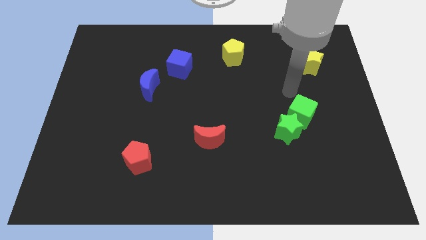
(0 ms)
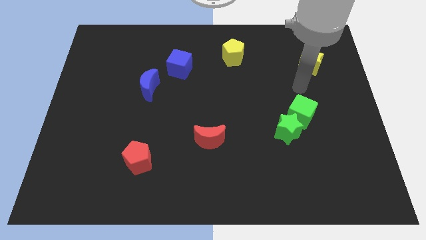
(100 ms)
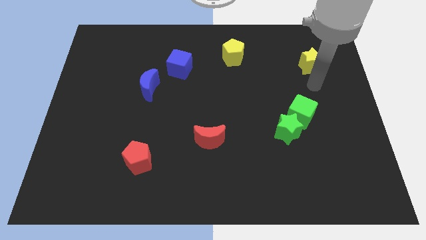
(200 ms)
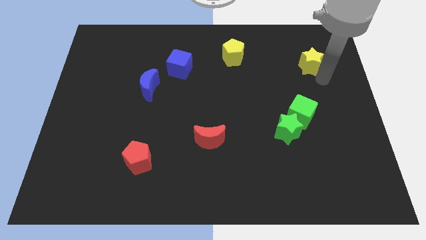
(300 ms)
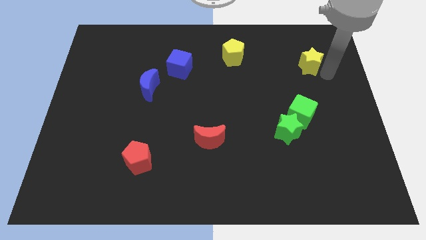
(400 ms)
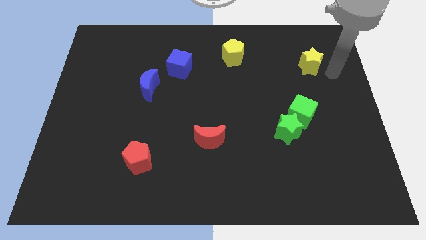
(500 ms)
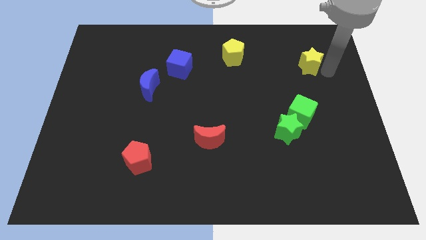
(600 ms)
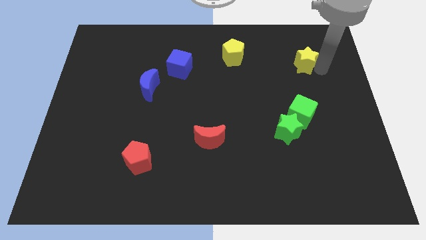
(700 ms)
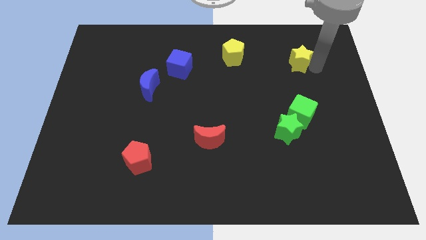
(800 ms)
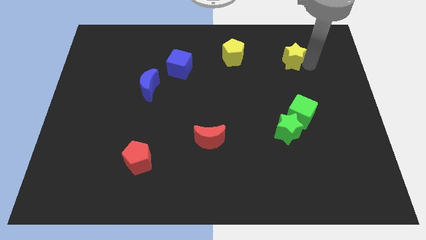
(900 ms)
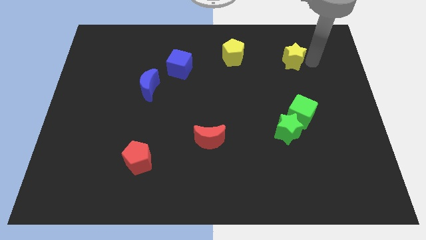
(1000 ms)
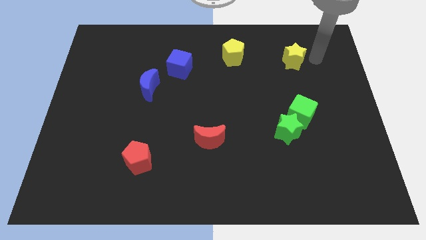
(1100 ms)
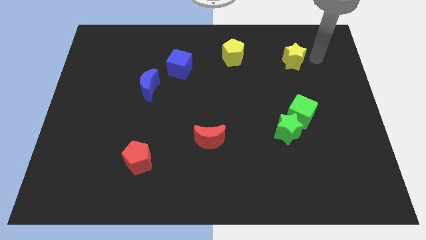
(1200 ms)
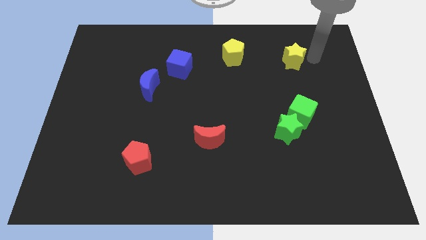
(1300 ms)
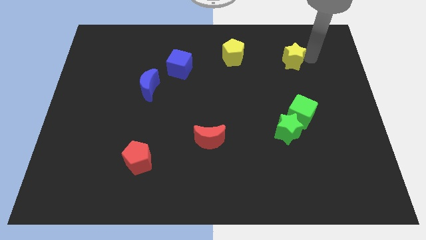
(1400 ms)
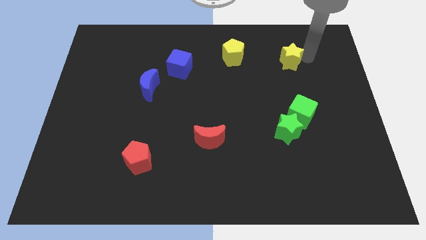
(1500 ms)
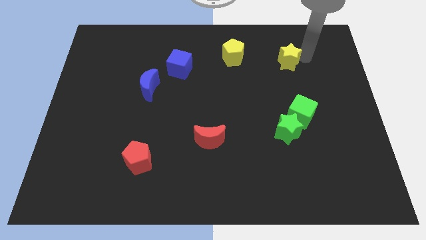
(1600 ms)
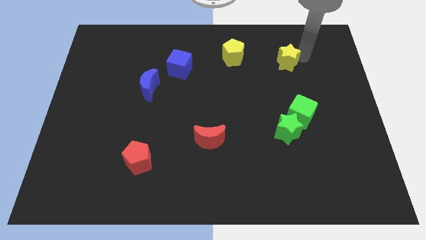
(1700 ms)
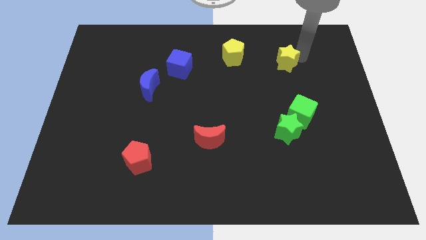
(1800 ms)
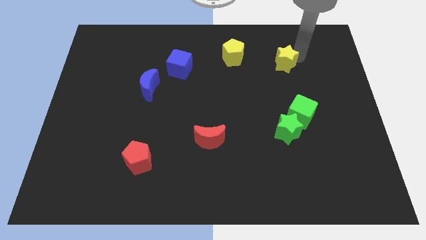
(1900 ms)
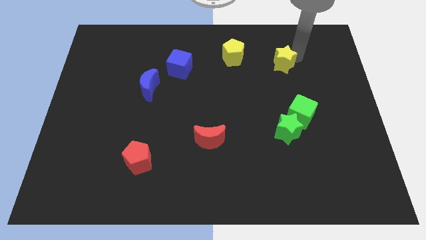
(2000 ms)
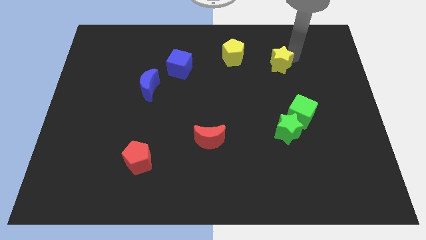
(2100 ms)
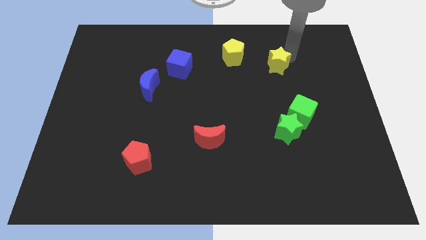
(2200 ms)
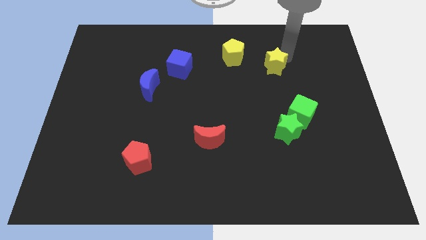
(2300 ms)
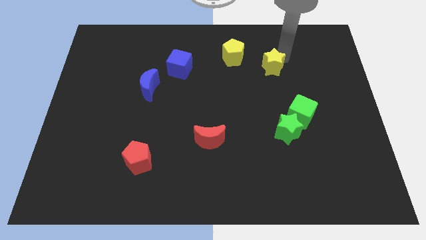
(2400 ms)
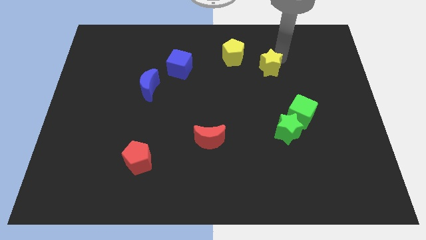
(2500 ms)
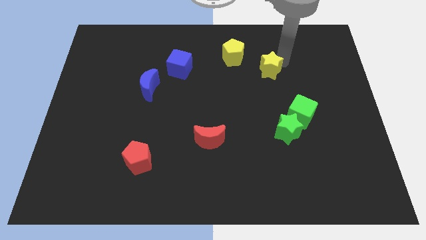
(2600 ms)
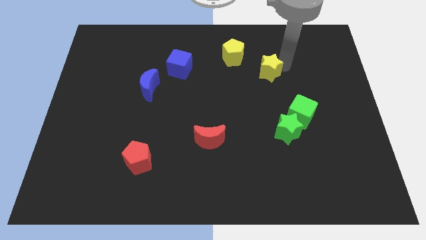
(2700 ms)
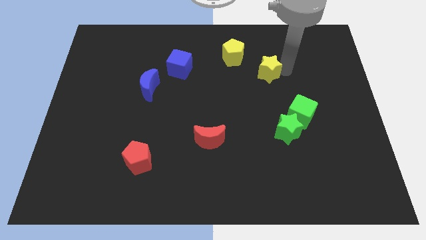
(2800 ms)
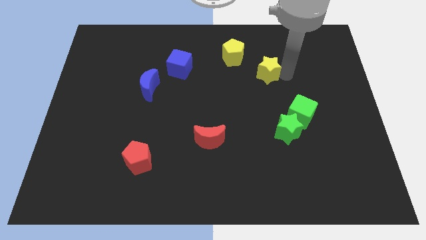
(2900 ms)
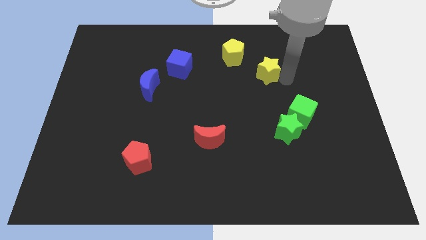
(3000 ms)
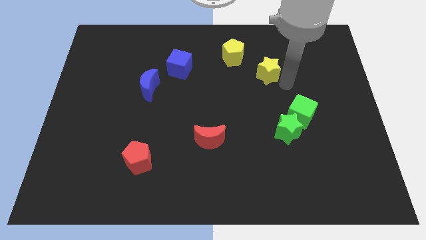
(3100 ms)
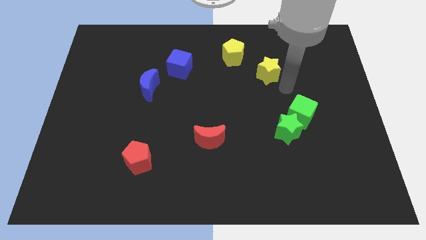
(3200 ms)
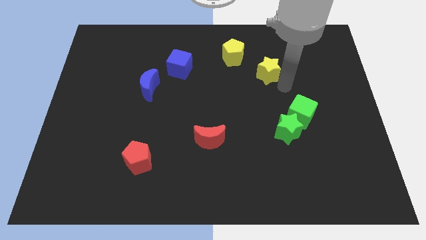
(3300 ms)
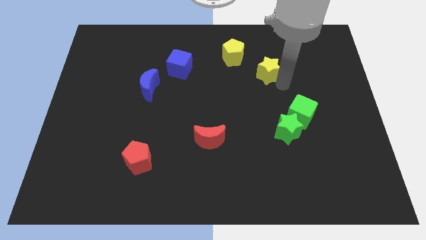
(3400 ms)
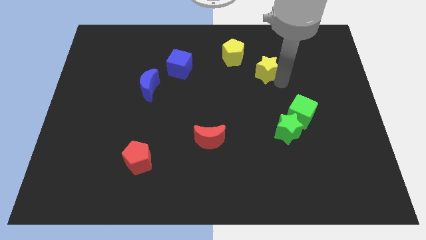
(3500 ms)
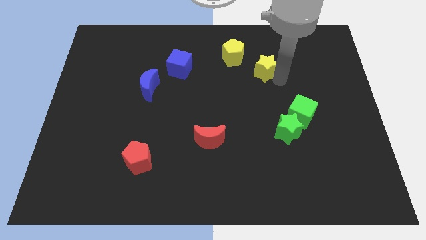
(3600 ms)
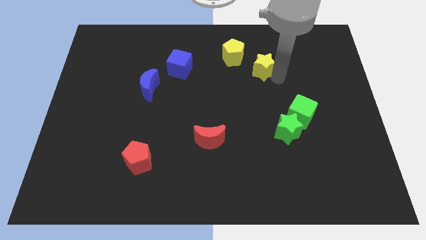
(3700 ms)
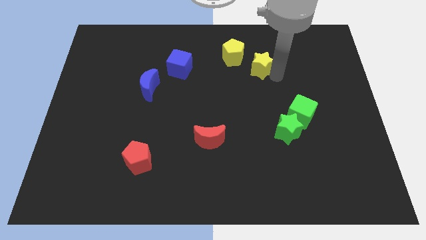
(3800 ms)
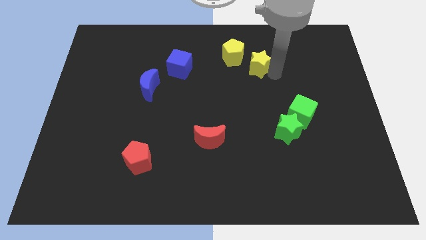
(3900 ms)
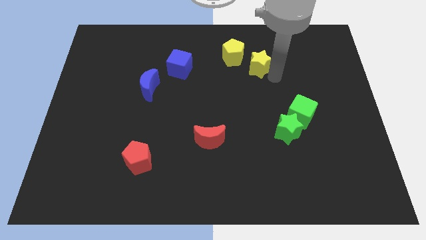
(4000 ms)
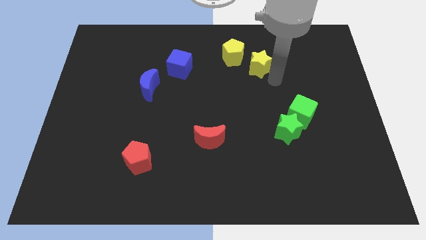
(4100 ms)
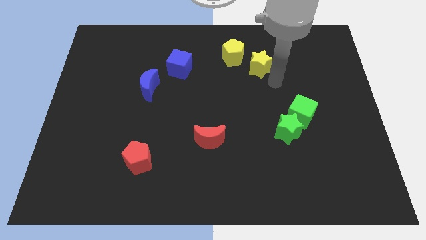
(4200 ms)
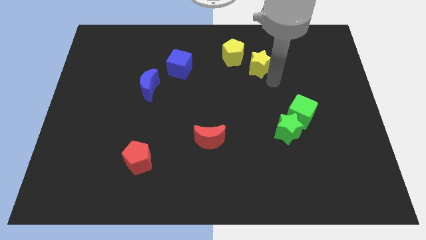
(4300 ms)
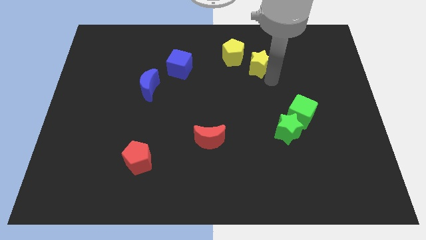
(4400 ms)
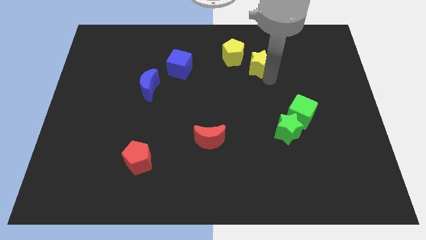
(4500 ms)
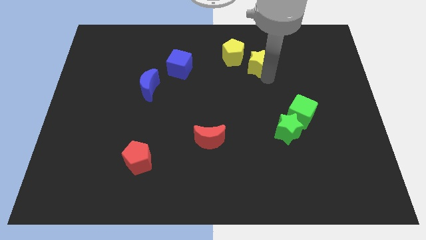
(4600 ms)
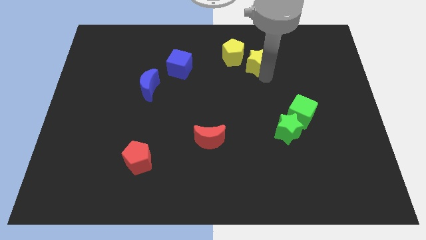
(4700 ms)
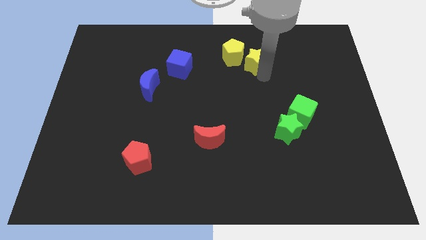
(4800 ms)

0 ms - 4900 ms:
push the yellow star close to the yellow pentagon

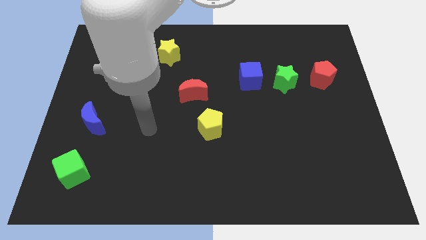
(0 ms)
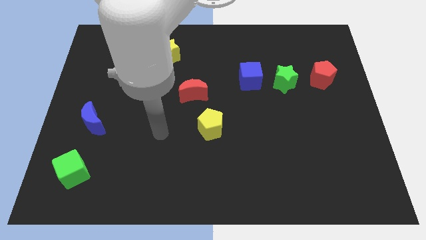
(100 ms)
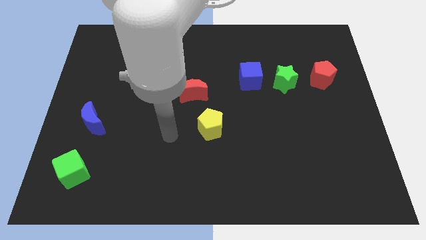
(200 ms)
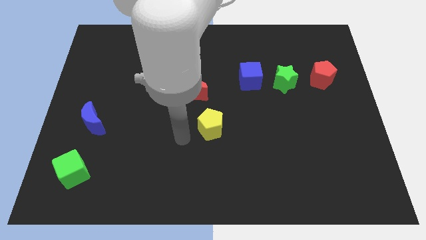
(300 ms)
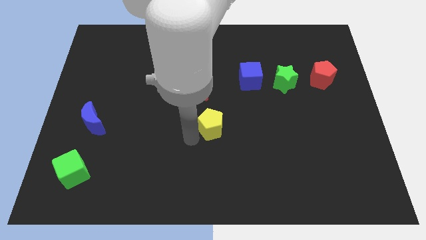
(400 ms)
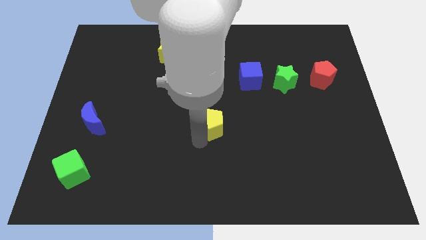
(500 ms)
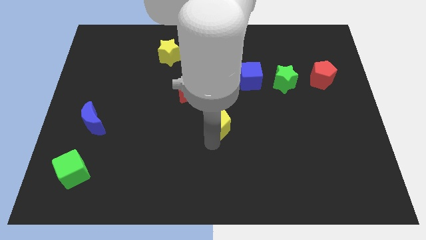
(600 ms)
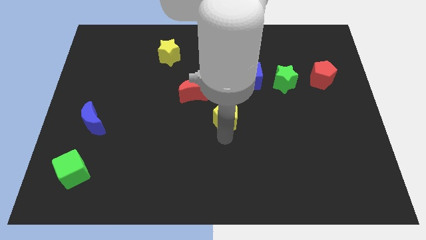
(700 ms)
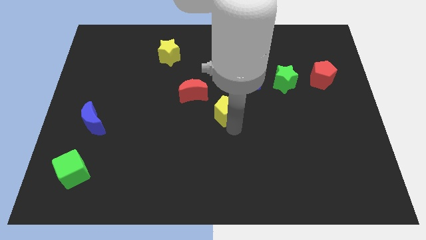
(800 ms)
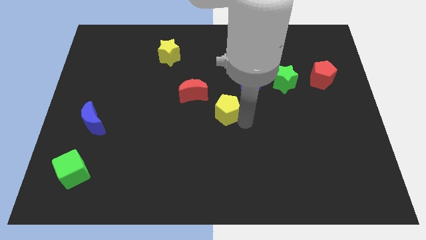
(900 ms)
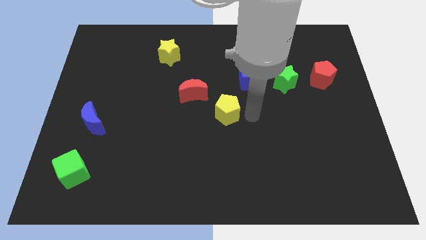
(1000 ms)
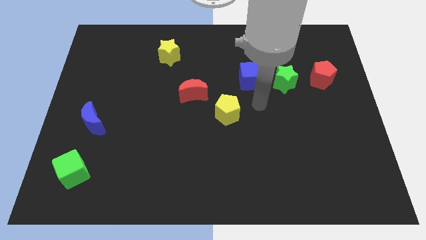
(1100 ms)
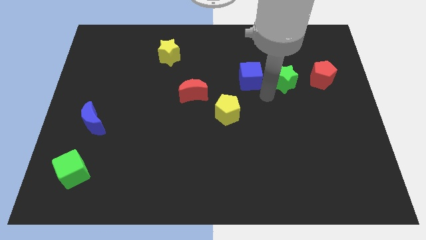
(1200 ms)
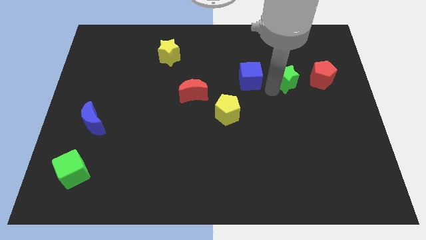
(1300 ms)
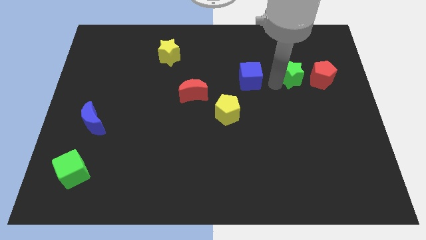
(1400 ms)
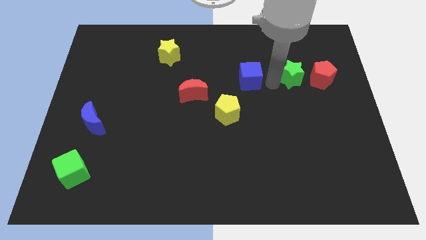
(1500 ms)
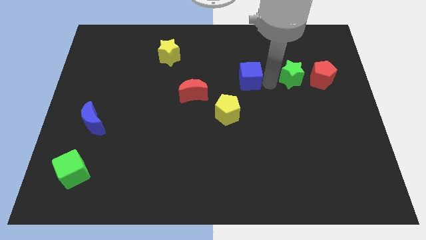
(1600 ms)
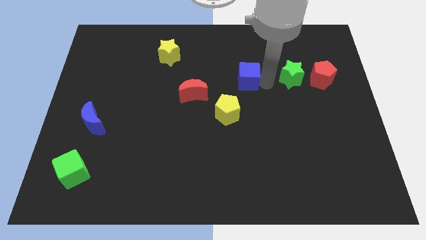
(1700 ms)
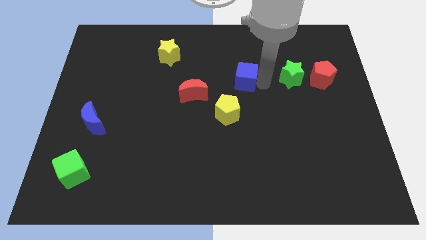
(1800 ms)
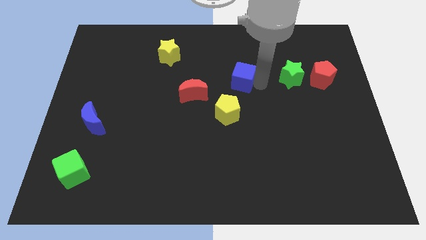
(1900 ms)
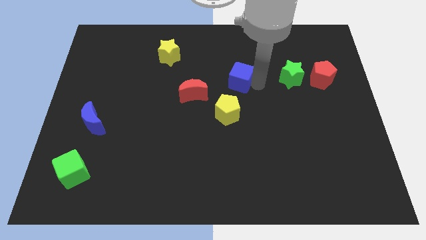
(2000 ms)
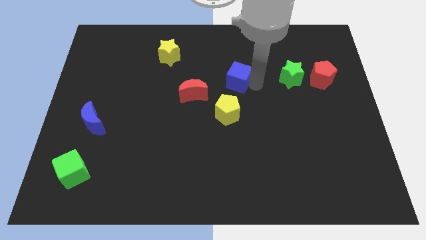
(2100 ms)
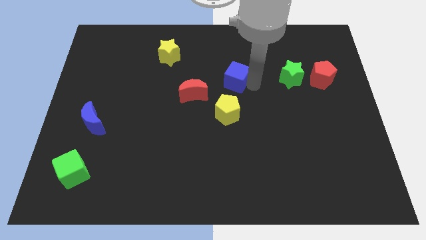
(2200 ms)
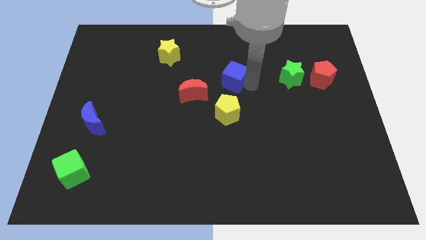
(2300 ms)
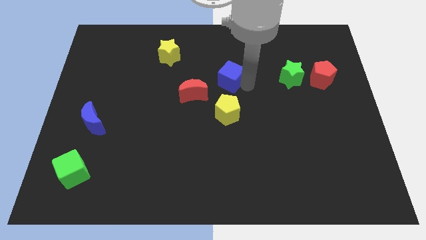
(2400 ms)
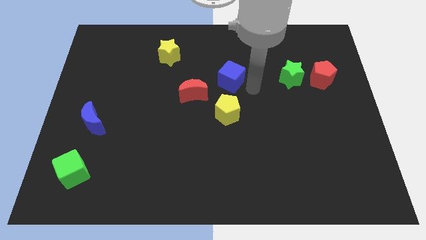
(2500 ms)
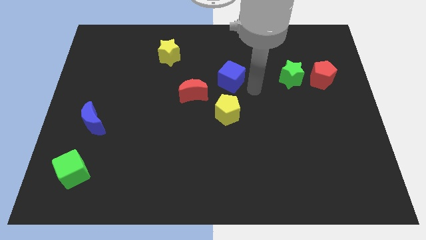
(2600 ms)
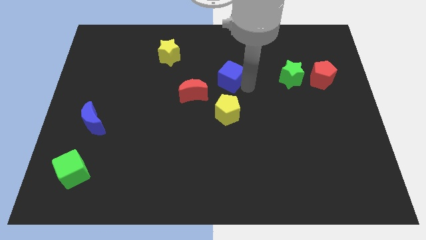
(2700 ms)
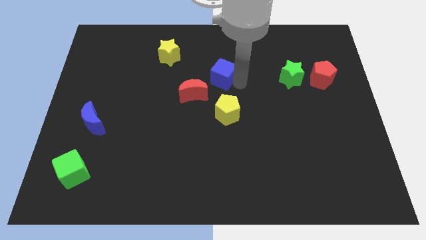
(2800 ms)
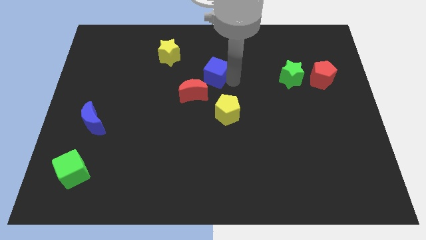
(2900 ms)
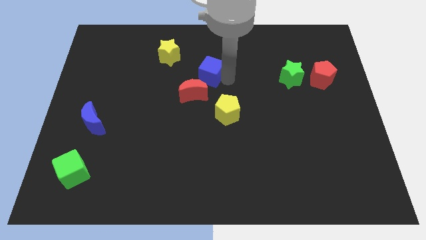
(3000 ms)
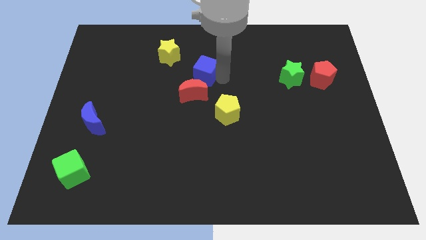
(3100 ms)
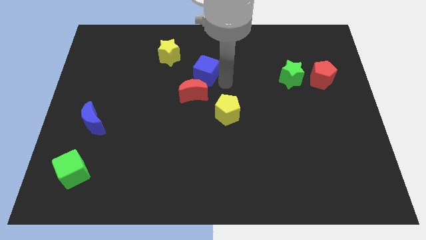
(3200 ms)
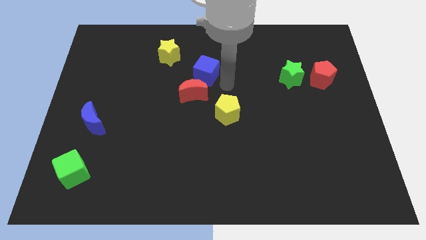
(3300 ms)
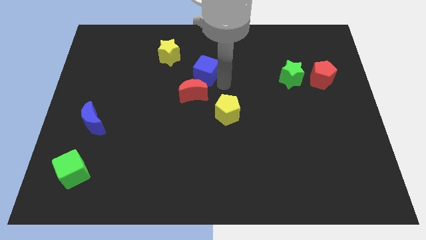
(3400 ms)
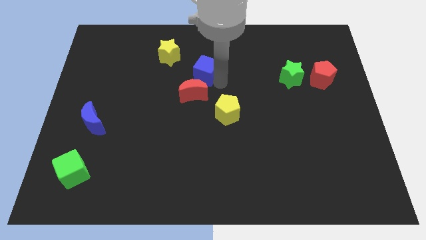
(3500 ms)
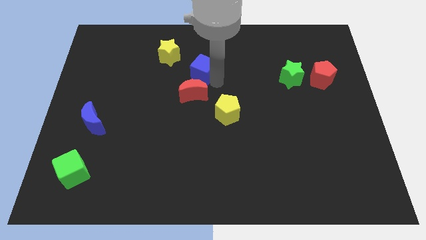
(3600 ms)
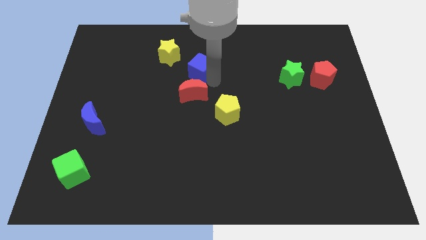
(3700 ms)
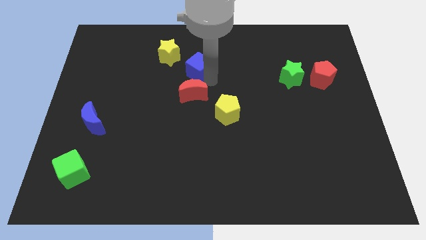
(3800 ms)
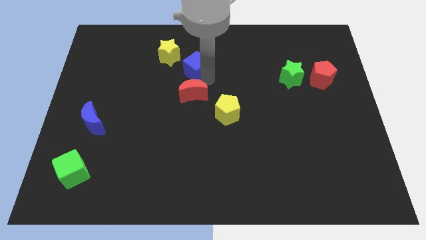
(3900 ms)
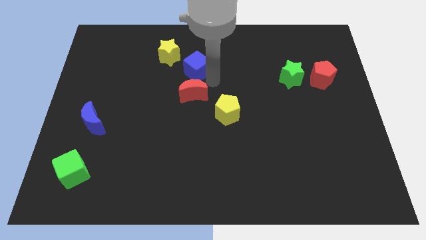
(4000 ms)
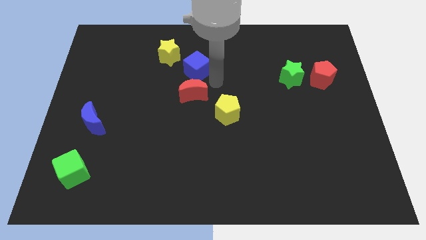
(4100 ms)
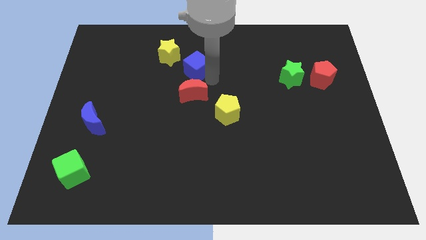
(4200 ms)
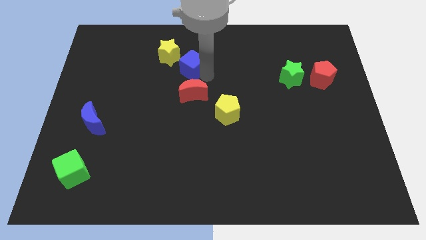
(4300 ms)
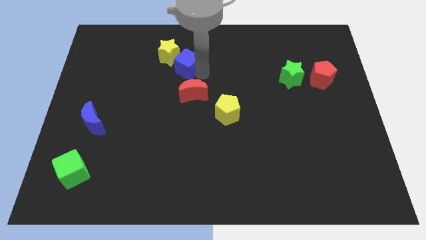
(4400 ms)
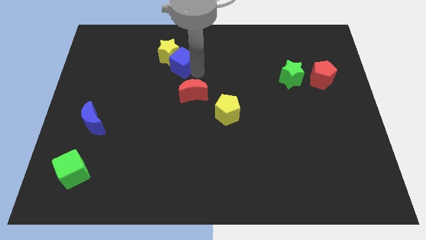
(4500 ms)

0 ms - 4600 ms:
move the blue cube towards the yellow star
